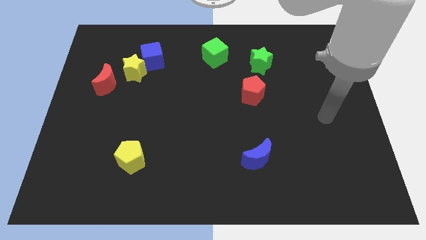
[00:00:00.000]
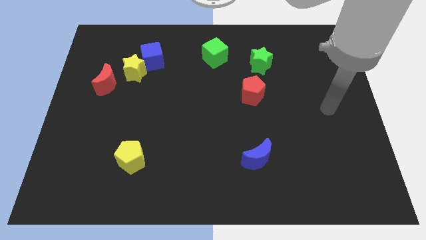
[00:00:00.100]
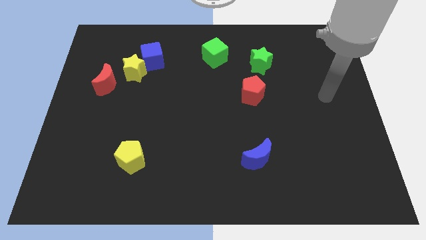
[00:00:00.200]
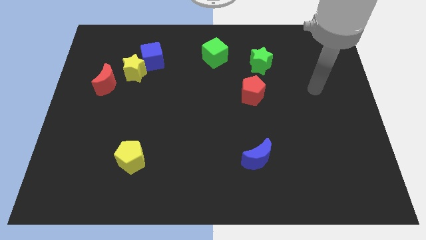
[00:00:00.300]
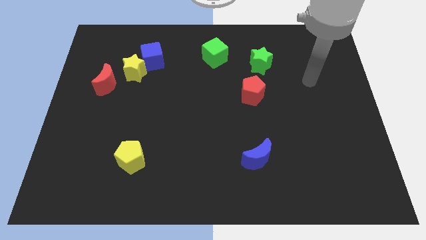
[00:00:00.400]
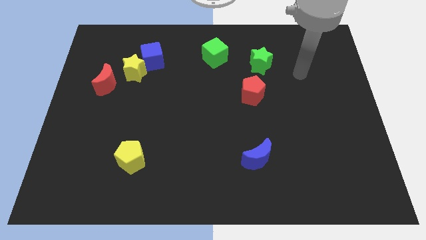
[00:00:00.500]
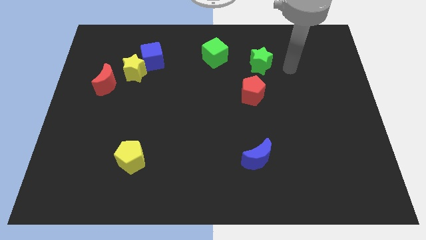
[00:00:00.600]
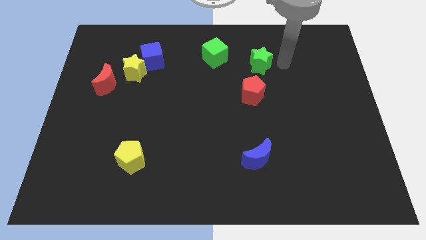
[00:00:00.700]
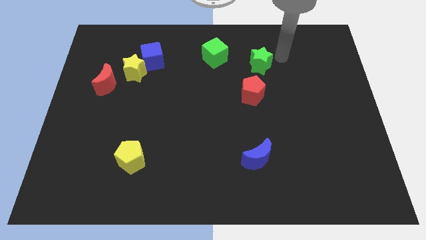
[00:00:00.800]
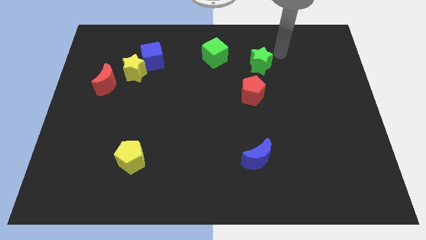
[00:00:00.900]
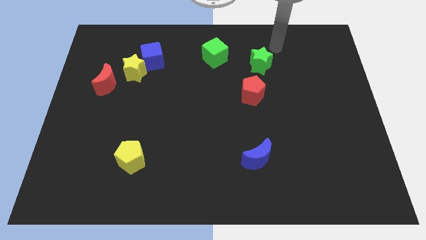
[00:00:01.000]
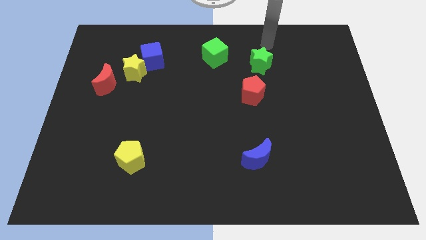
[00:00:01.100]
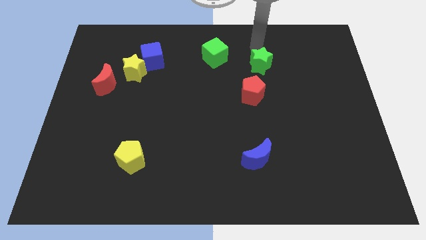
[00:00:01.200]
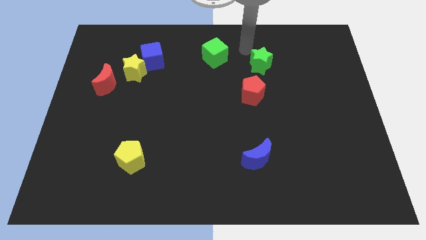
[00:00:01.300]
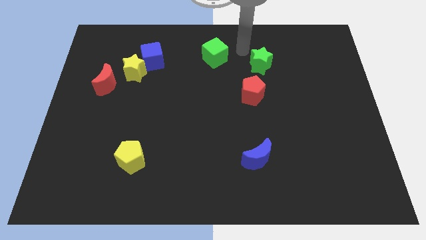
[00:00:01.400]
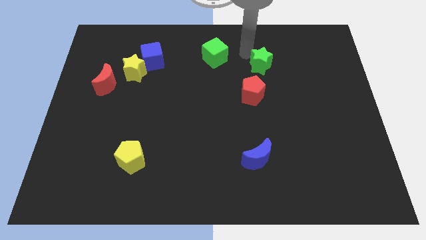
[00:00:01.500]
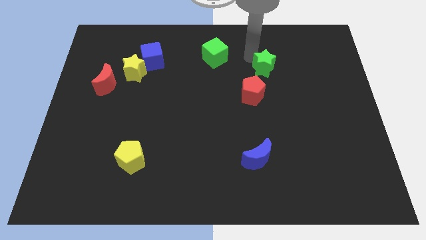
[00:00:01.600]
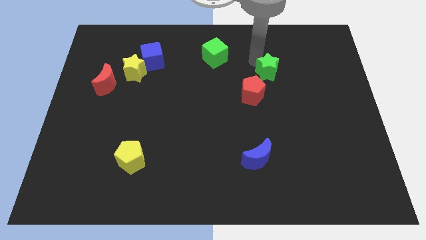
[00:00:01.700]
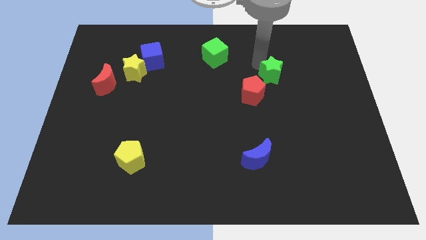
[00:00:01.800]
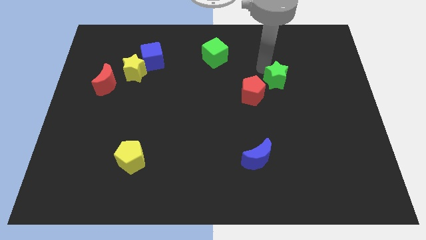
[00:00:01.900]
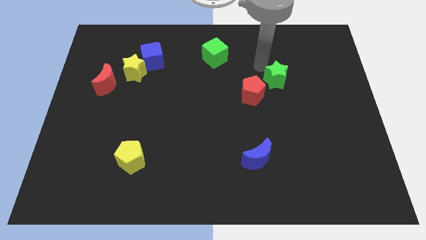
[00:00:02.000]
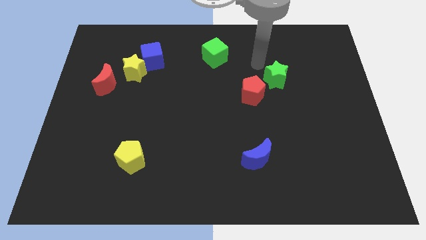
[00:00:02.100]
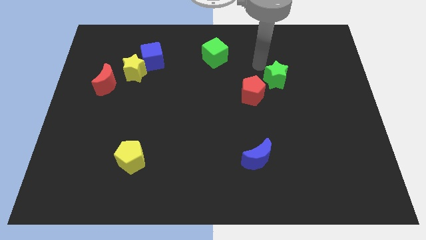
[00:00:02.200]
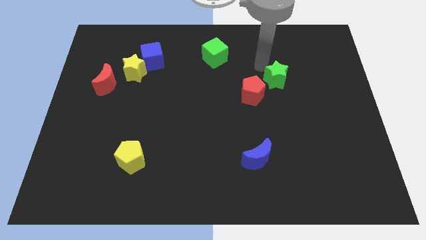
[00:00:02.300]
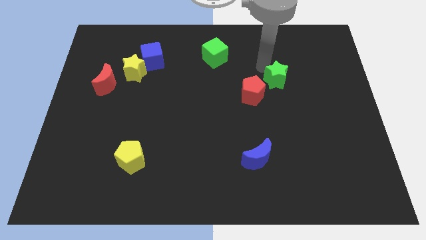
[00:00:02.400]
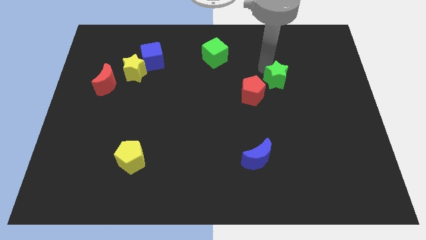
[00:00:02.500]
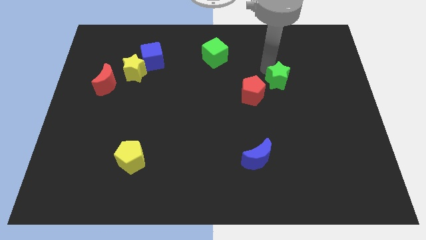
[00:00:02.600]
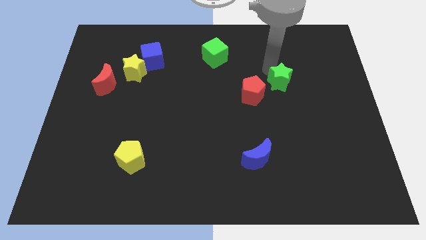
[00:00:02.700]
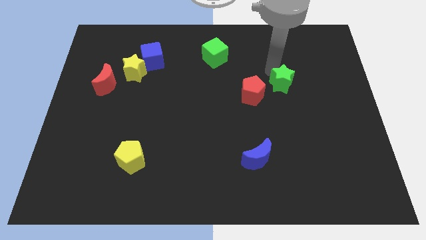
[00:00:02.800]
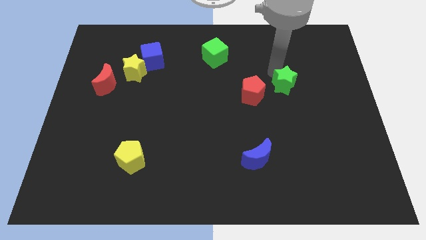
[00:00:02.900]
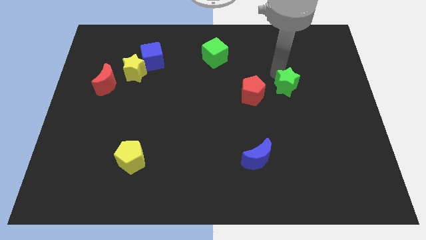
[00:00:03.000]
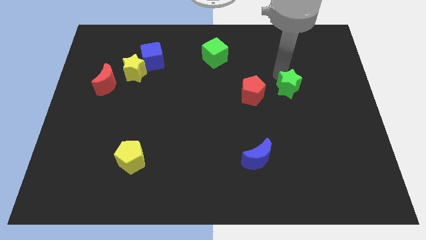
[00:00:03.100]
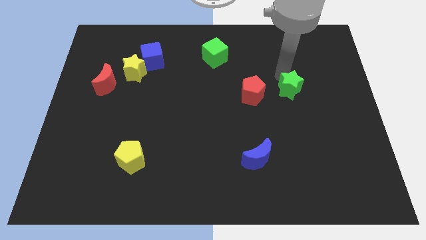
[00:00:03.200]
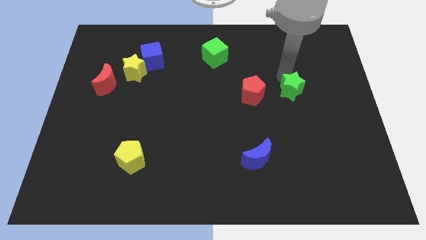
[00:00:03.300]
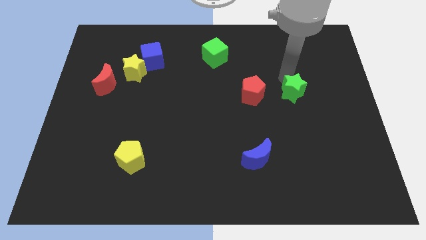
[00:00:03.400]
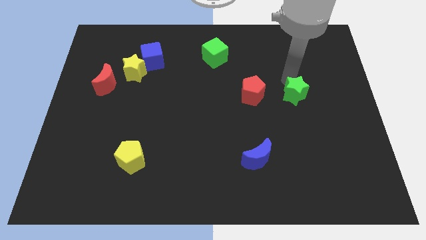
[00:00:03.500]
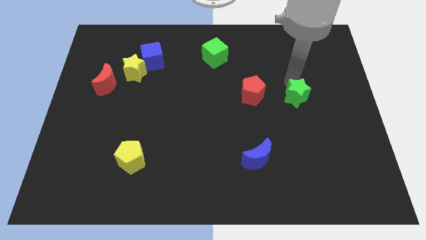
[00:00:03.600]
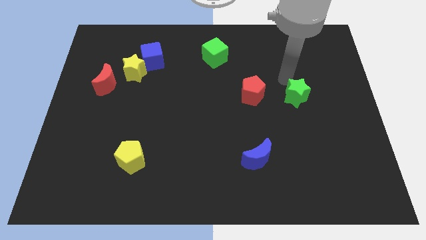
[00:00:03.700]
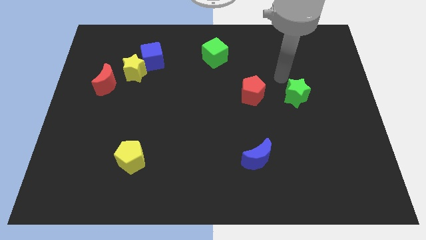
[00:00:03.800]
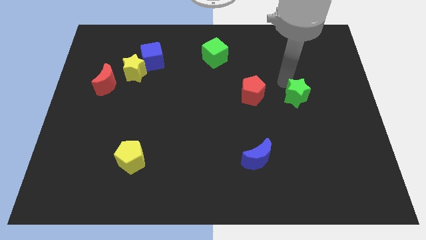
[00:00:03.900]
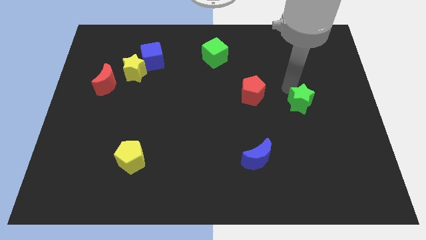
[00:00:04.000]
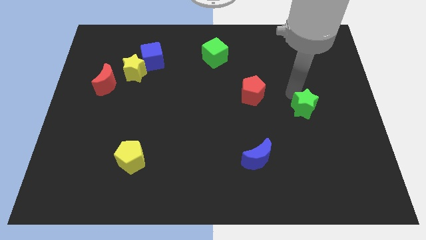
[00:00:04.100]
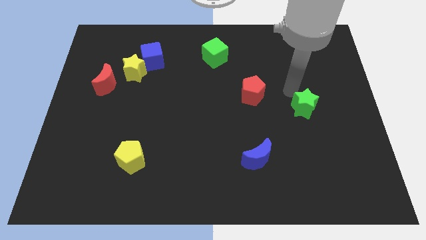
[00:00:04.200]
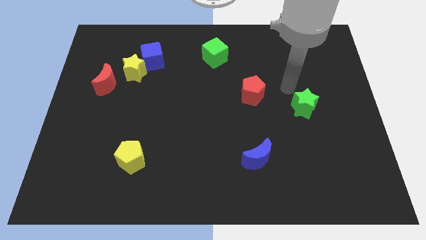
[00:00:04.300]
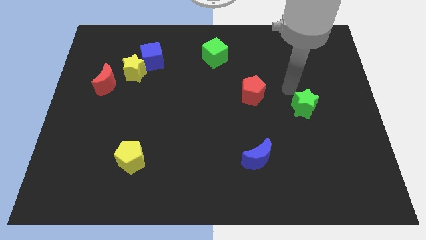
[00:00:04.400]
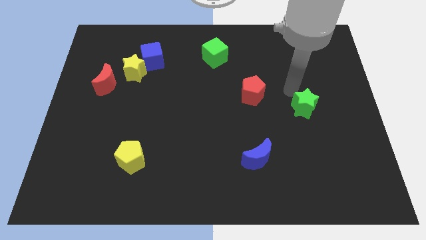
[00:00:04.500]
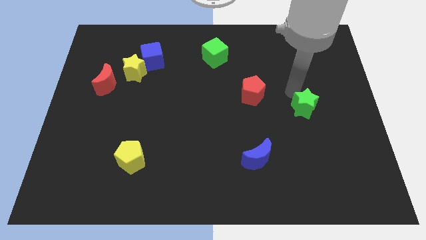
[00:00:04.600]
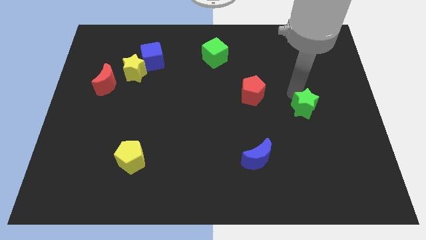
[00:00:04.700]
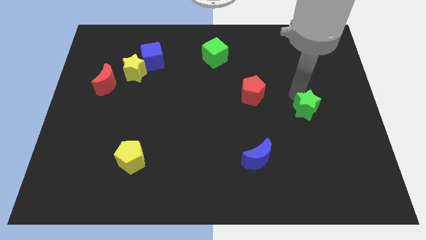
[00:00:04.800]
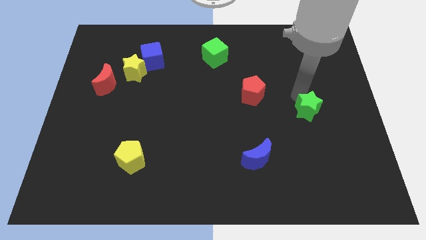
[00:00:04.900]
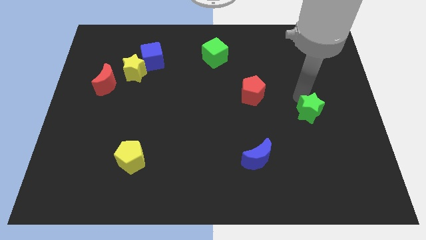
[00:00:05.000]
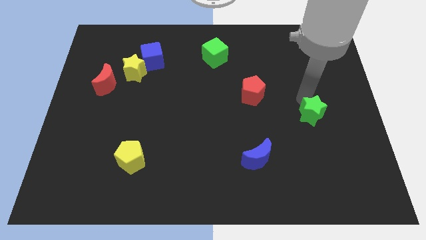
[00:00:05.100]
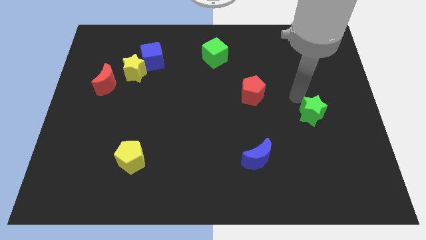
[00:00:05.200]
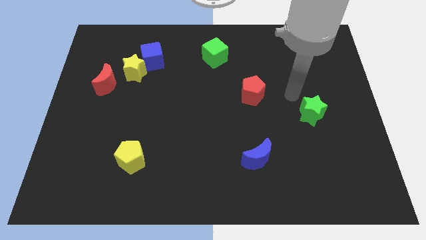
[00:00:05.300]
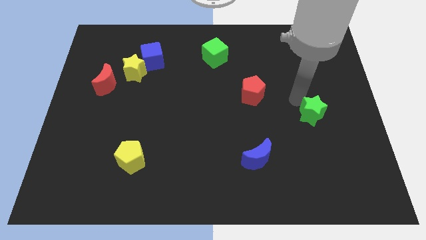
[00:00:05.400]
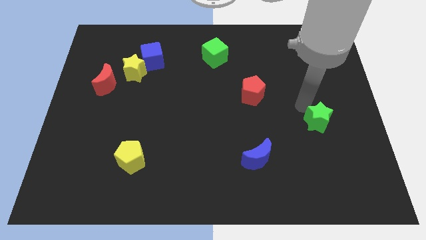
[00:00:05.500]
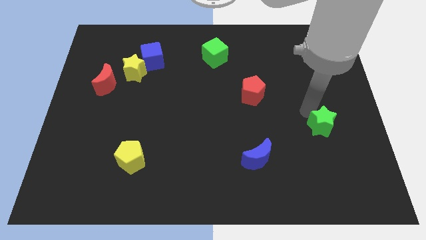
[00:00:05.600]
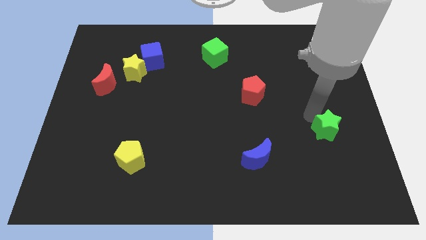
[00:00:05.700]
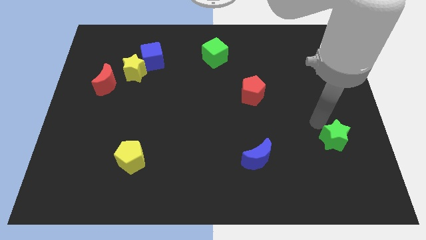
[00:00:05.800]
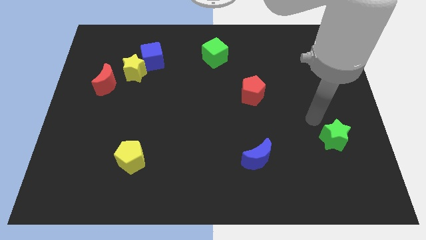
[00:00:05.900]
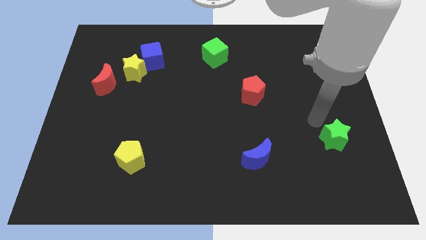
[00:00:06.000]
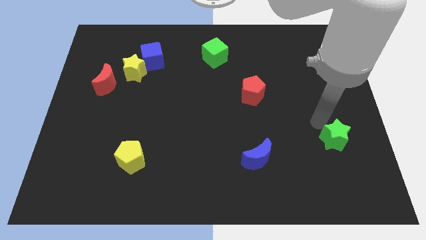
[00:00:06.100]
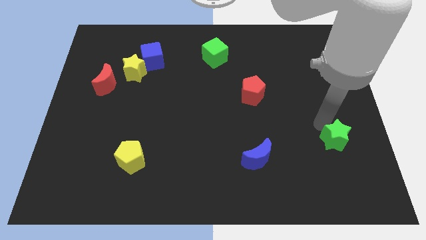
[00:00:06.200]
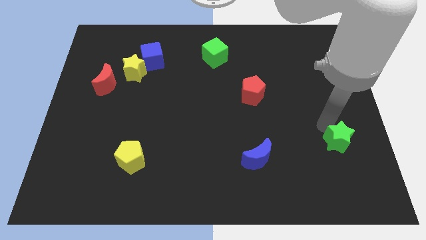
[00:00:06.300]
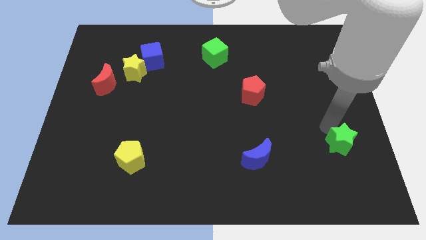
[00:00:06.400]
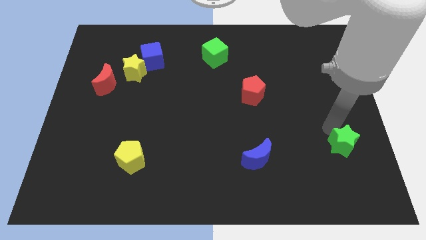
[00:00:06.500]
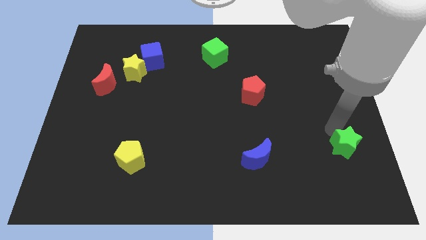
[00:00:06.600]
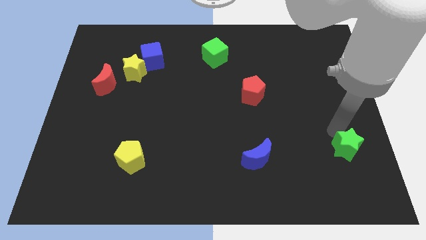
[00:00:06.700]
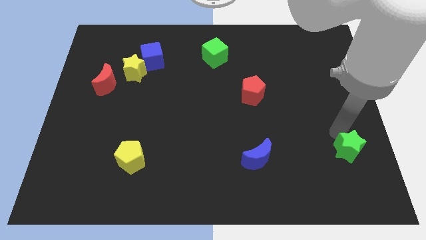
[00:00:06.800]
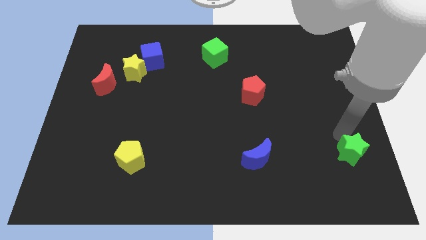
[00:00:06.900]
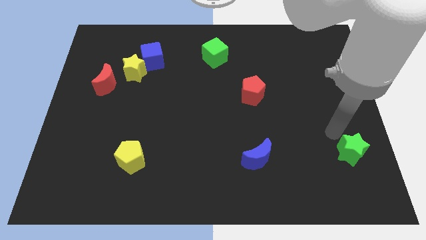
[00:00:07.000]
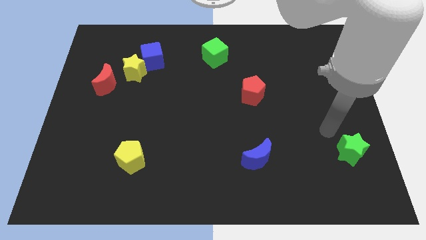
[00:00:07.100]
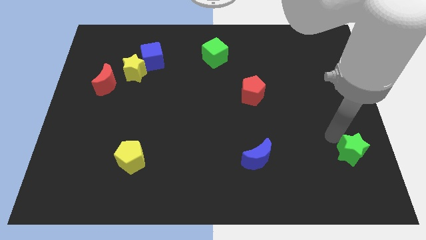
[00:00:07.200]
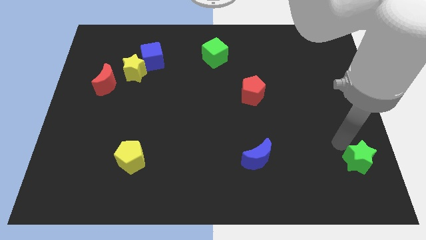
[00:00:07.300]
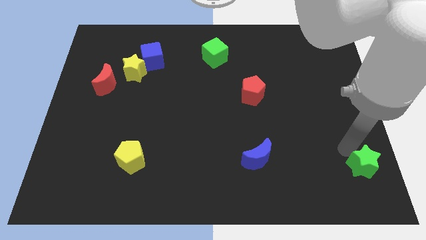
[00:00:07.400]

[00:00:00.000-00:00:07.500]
push the green star to the bottom right of the board
